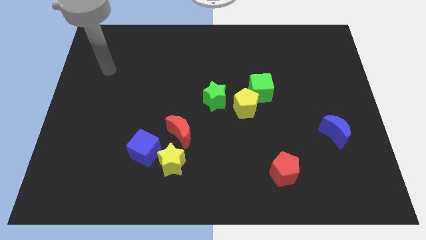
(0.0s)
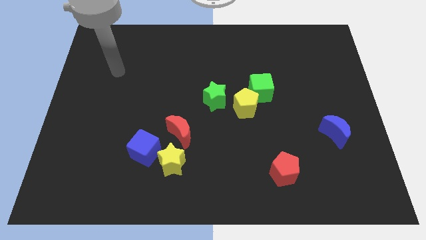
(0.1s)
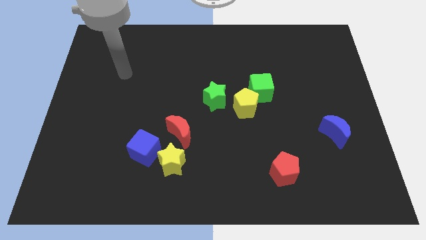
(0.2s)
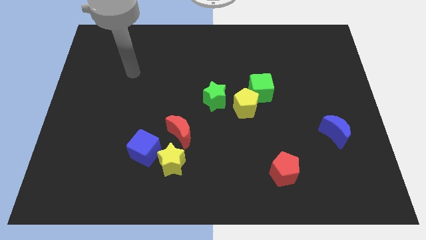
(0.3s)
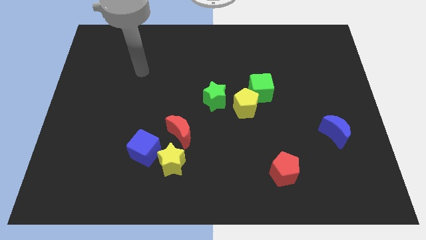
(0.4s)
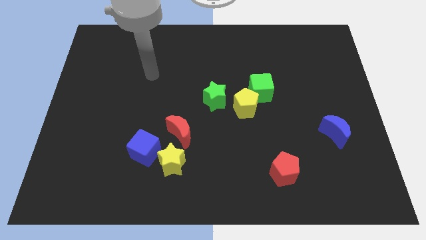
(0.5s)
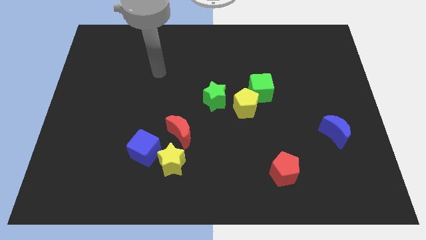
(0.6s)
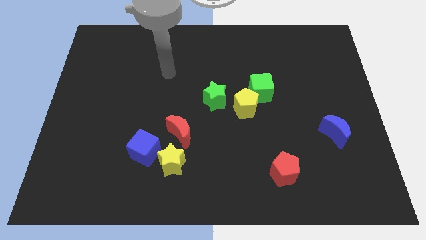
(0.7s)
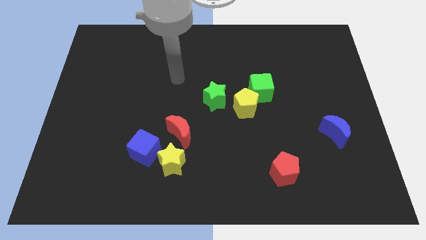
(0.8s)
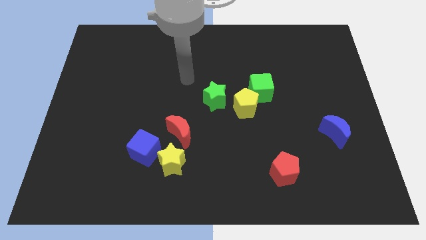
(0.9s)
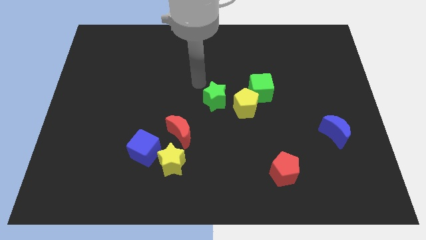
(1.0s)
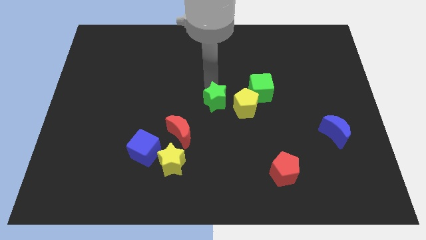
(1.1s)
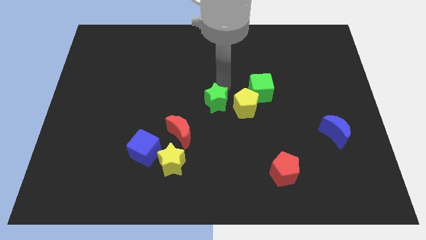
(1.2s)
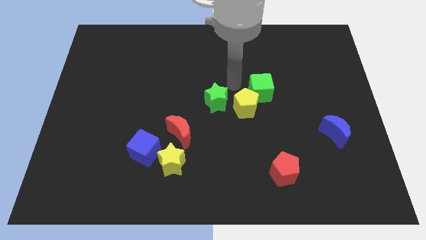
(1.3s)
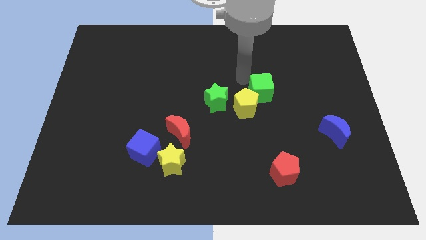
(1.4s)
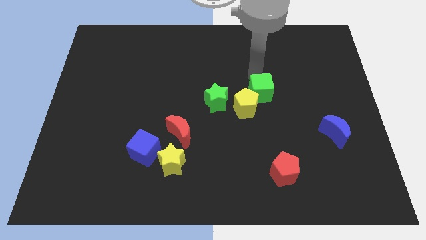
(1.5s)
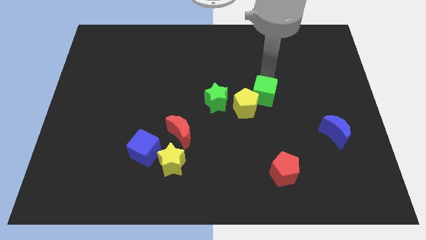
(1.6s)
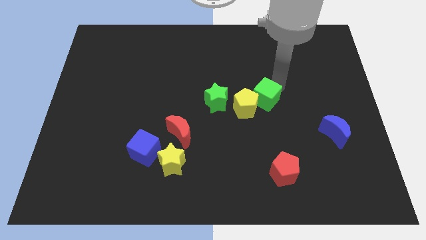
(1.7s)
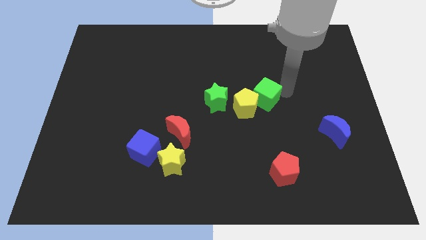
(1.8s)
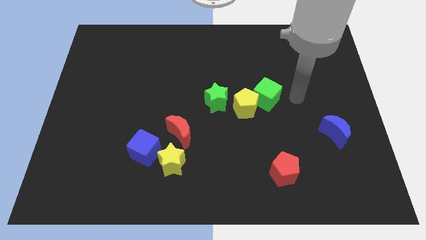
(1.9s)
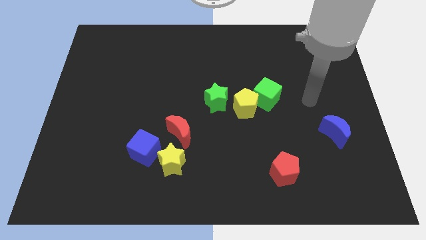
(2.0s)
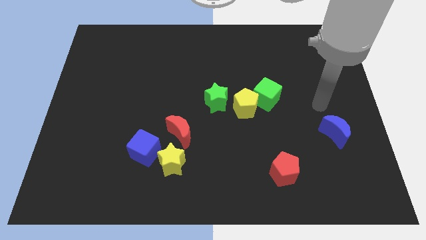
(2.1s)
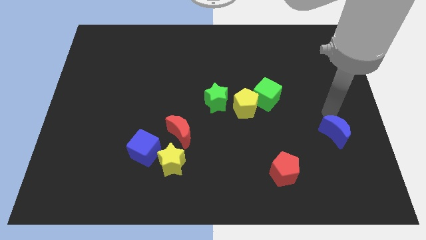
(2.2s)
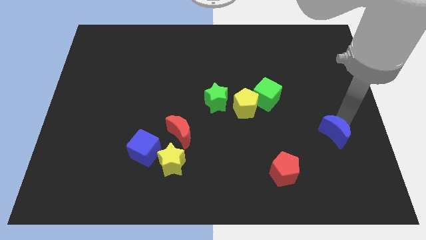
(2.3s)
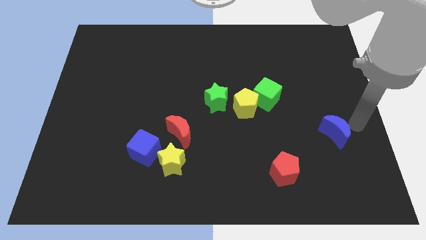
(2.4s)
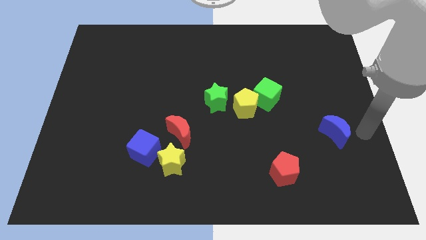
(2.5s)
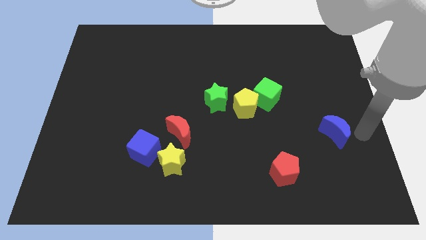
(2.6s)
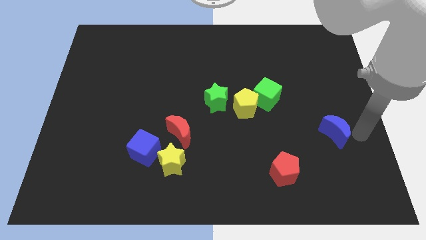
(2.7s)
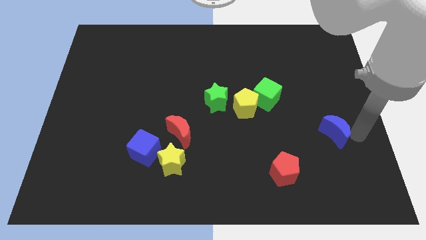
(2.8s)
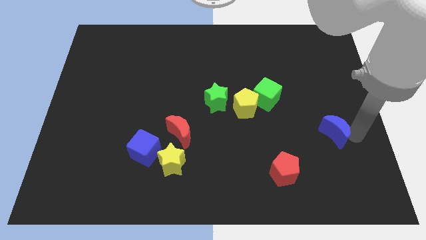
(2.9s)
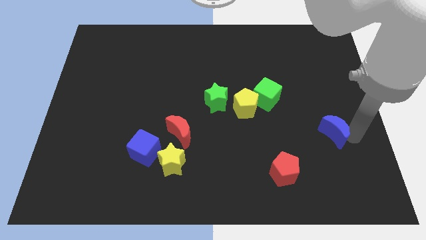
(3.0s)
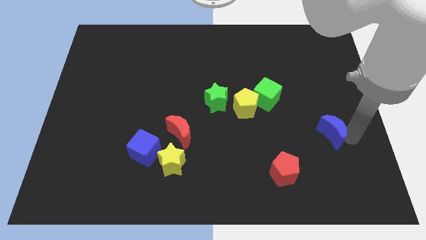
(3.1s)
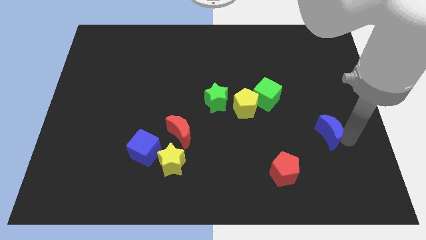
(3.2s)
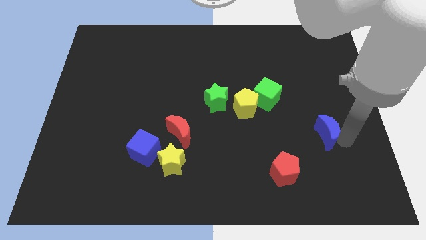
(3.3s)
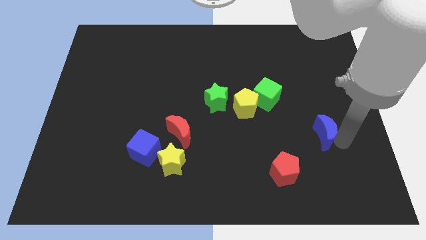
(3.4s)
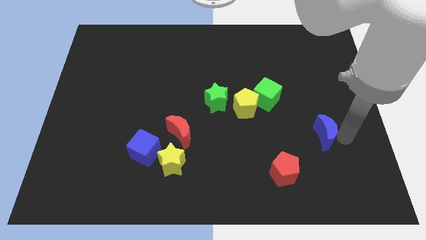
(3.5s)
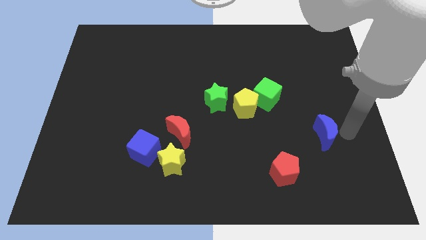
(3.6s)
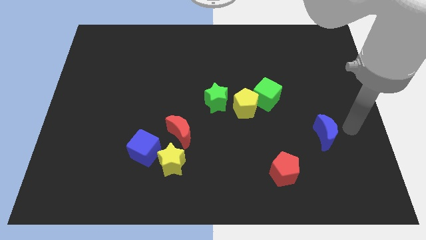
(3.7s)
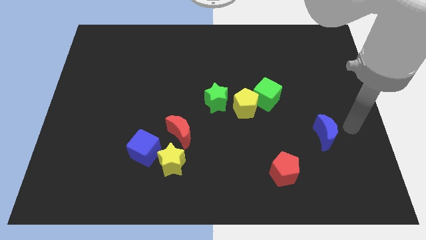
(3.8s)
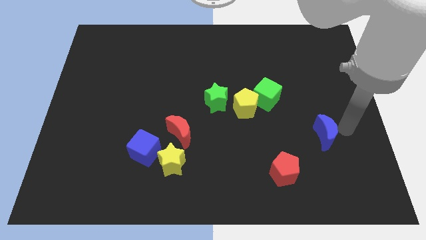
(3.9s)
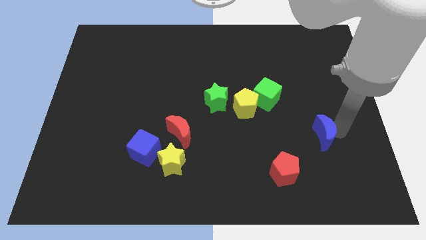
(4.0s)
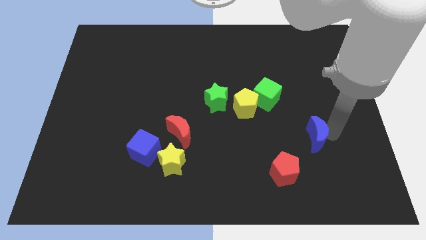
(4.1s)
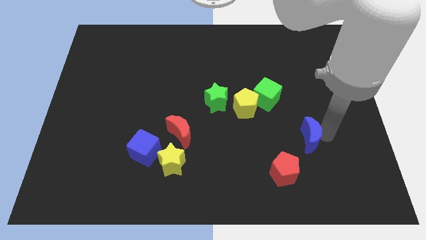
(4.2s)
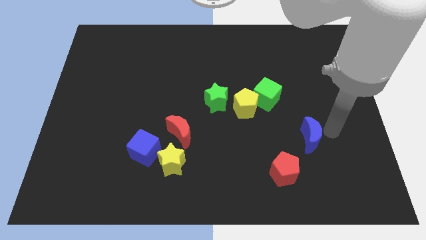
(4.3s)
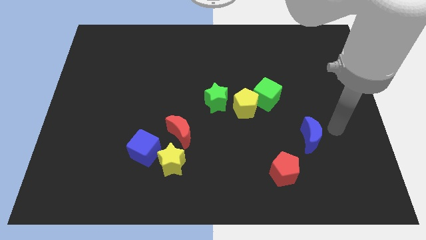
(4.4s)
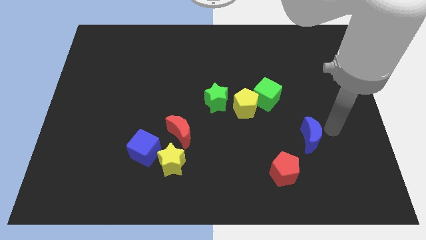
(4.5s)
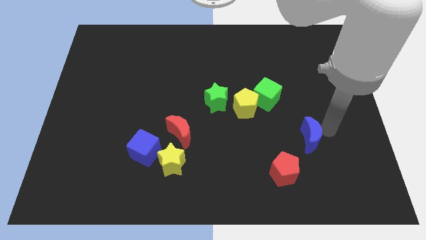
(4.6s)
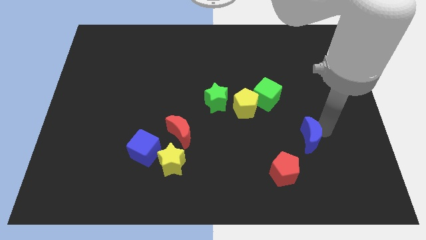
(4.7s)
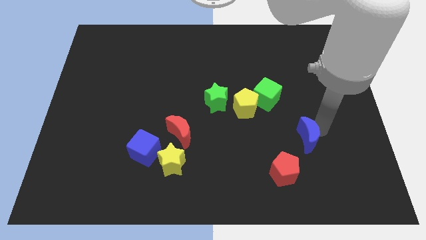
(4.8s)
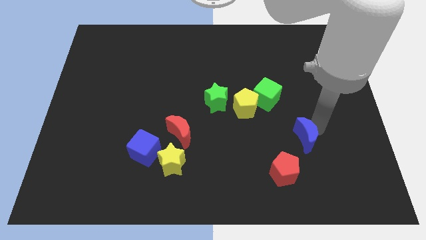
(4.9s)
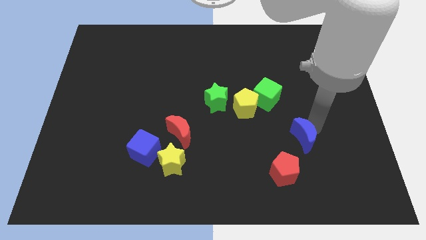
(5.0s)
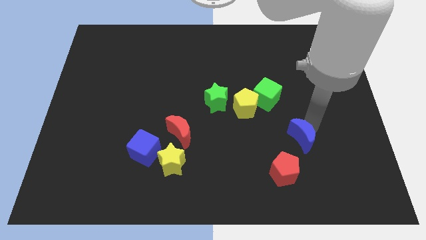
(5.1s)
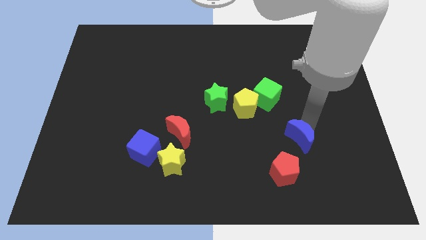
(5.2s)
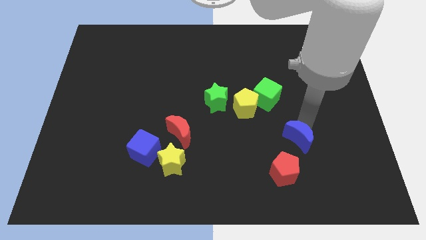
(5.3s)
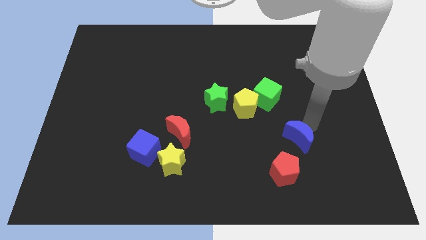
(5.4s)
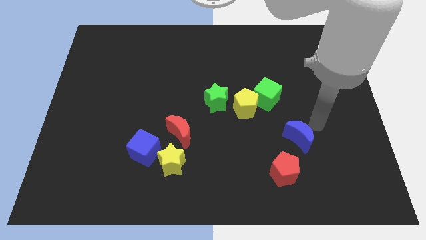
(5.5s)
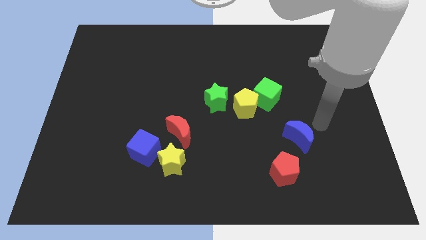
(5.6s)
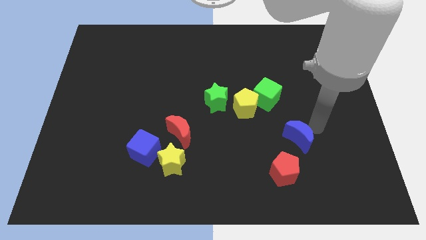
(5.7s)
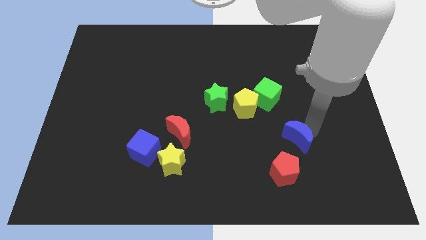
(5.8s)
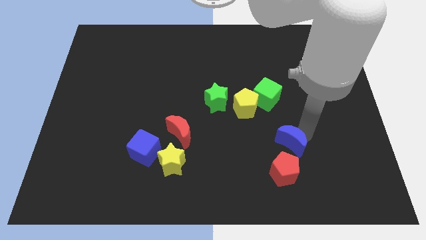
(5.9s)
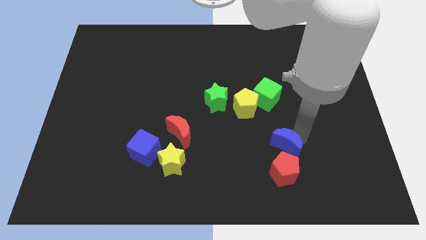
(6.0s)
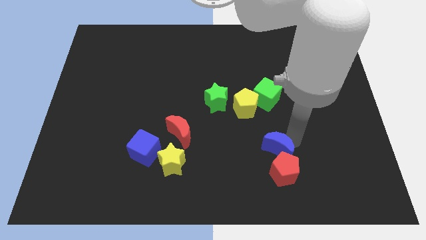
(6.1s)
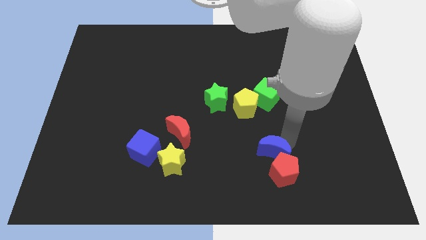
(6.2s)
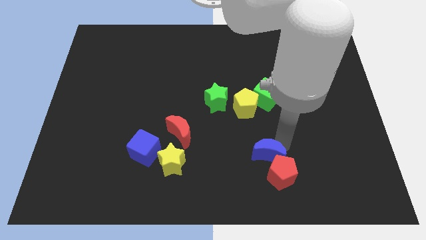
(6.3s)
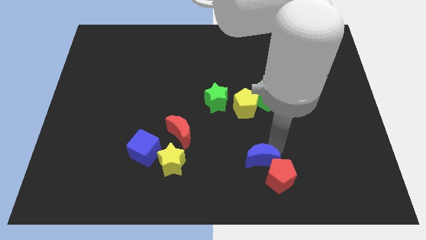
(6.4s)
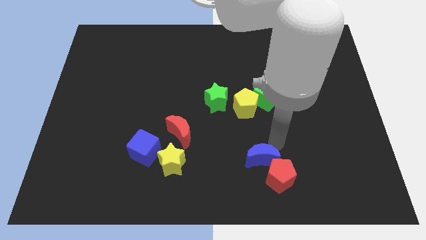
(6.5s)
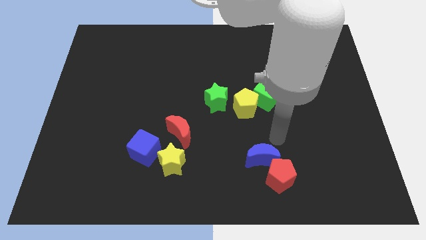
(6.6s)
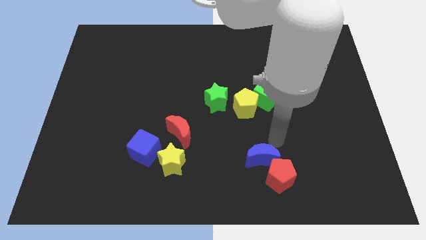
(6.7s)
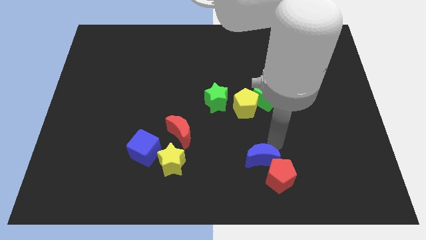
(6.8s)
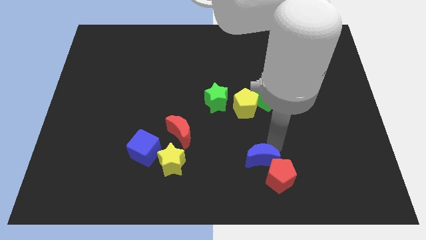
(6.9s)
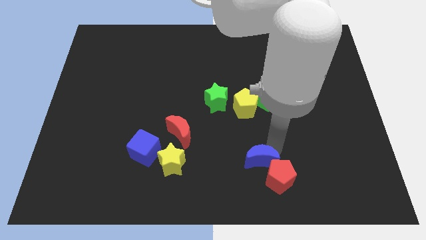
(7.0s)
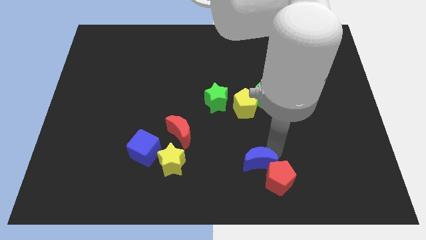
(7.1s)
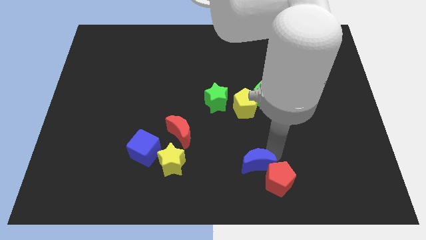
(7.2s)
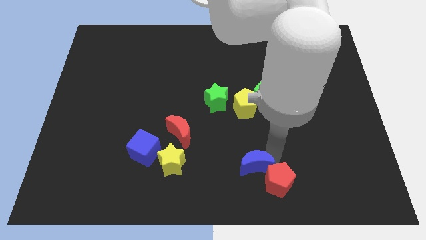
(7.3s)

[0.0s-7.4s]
slide the blue moon to the bottom

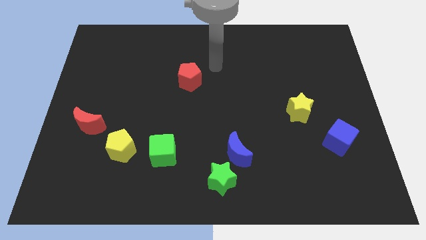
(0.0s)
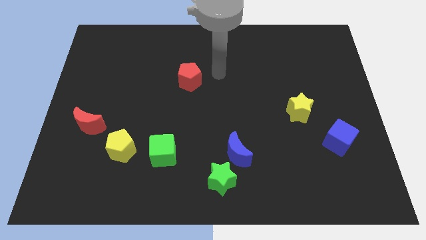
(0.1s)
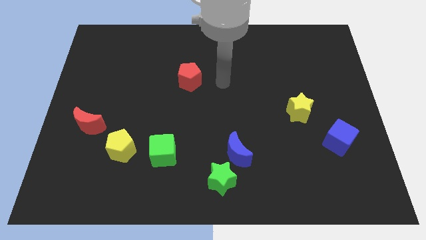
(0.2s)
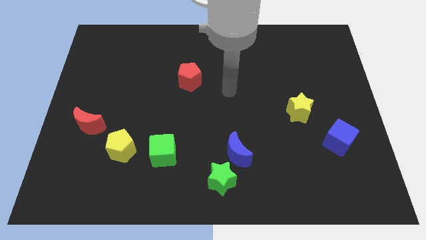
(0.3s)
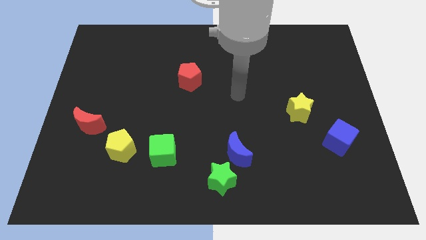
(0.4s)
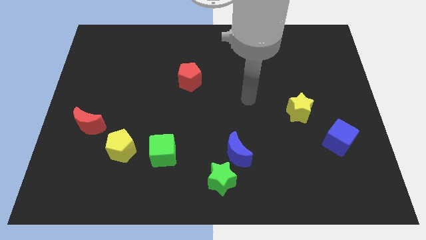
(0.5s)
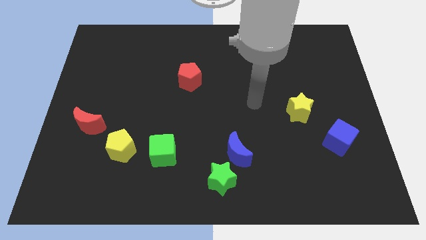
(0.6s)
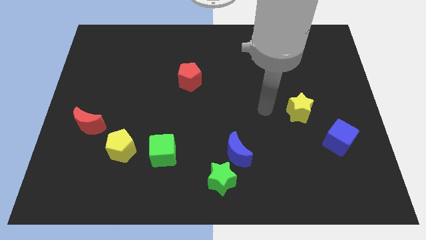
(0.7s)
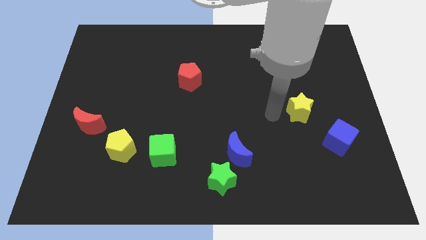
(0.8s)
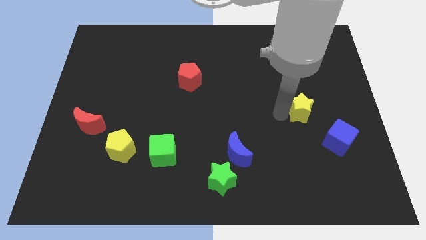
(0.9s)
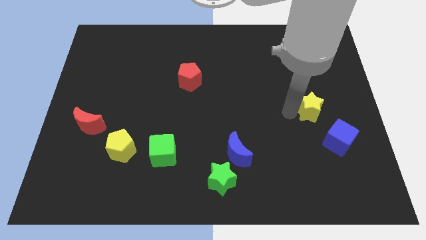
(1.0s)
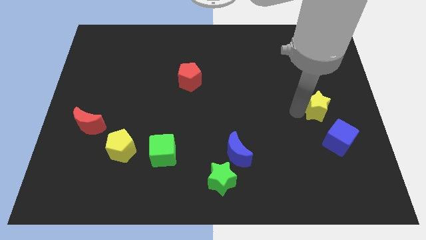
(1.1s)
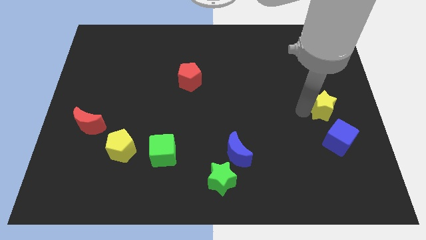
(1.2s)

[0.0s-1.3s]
slide the yellow star to the center right
